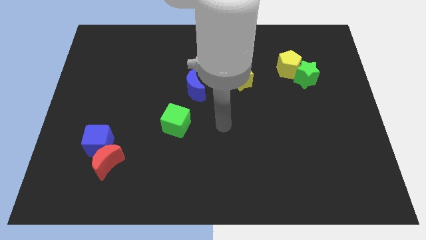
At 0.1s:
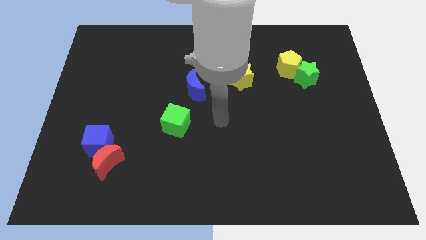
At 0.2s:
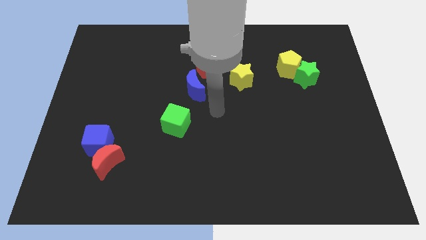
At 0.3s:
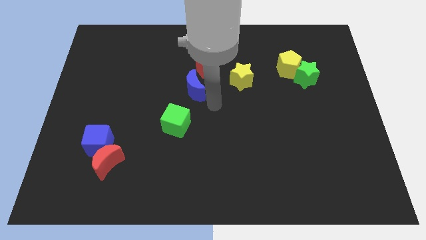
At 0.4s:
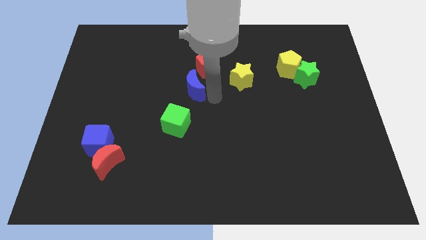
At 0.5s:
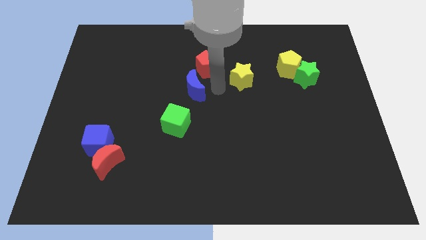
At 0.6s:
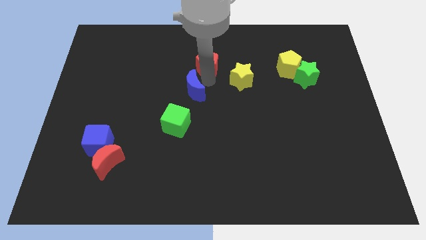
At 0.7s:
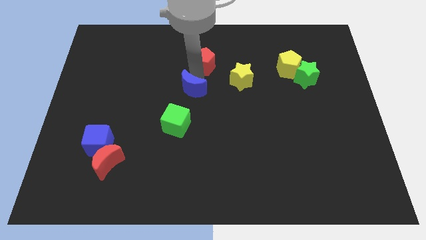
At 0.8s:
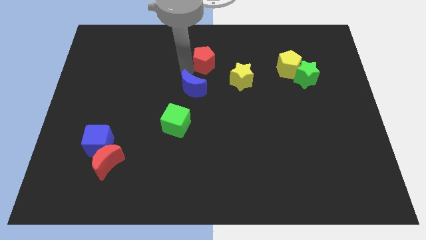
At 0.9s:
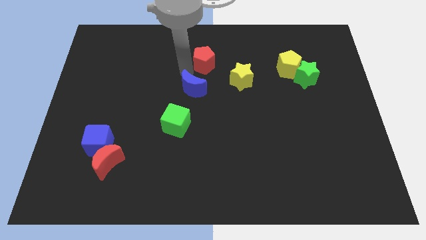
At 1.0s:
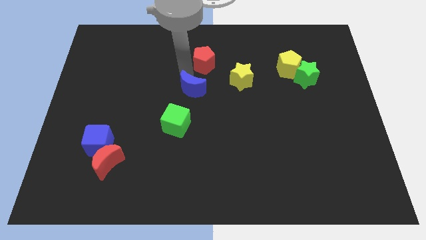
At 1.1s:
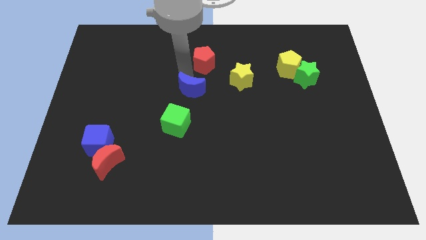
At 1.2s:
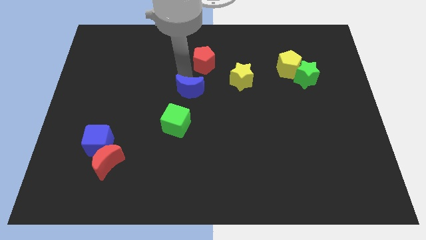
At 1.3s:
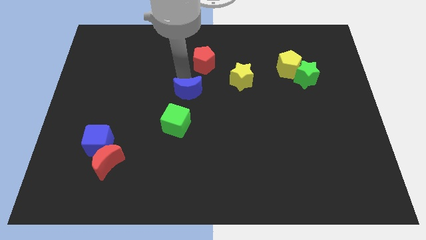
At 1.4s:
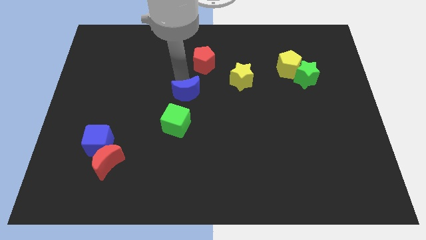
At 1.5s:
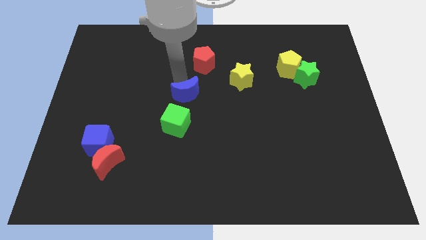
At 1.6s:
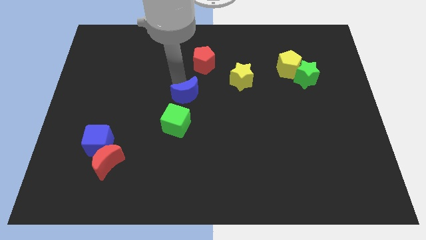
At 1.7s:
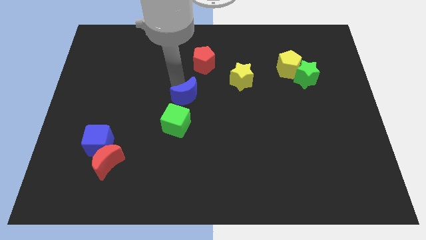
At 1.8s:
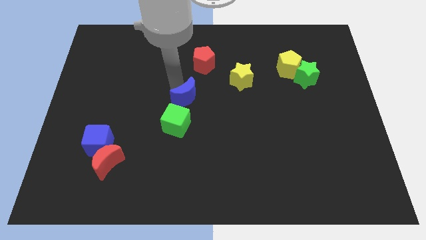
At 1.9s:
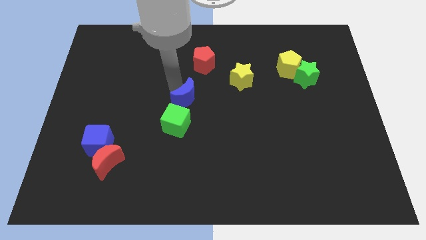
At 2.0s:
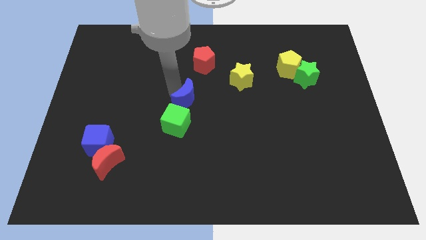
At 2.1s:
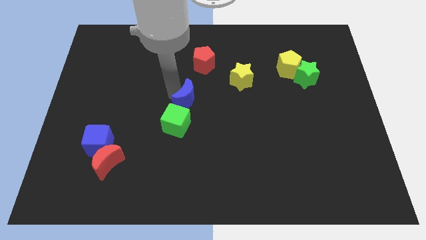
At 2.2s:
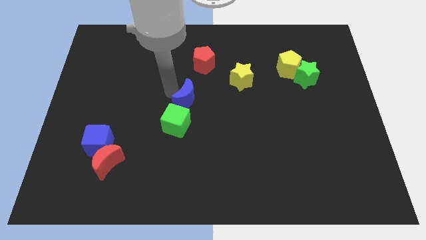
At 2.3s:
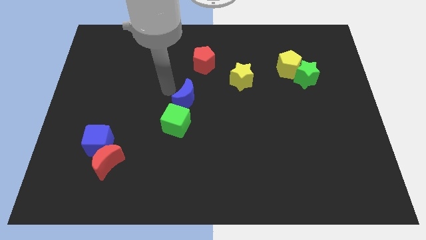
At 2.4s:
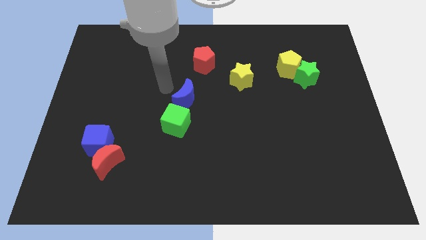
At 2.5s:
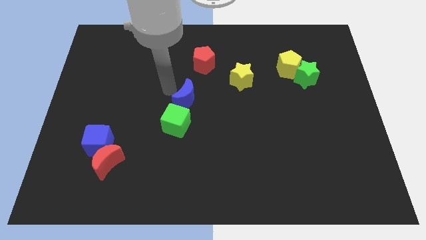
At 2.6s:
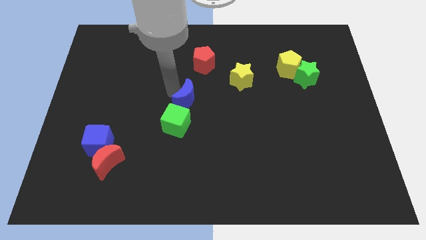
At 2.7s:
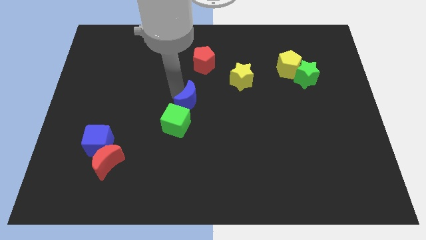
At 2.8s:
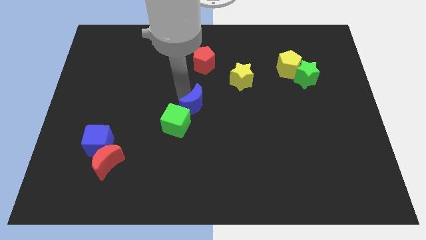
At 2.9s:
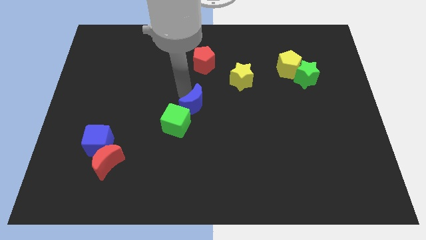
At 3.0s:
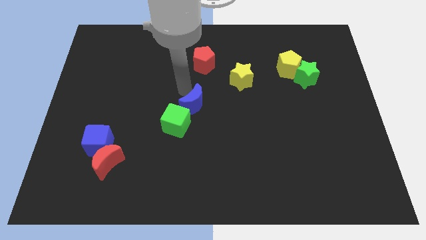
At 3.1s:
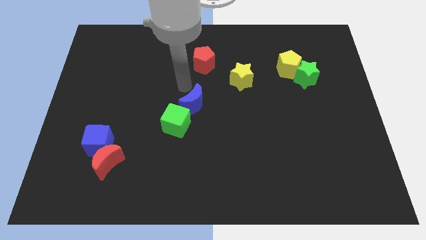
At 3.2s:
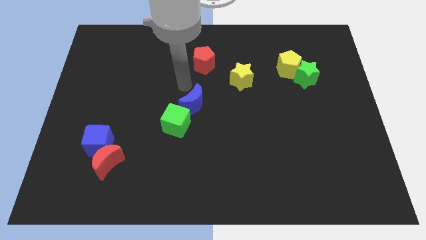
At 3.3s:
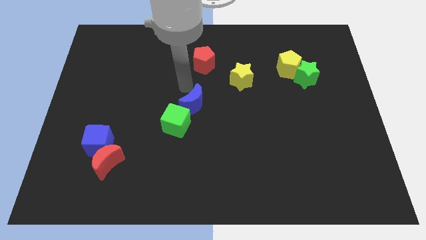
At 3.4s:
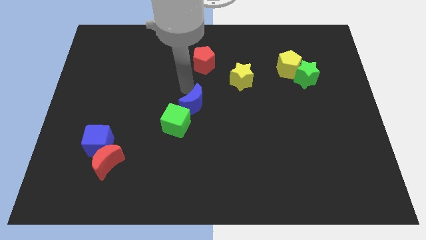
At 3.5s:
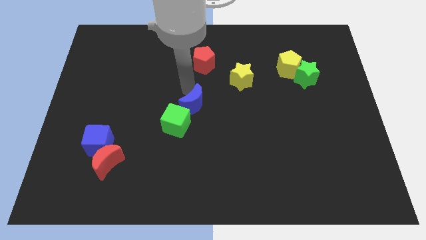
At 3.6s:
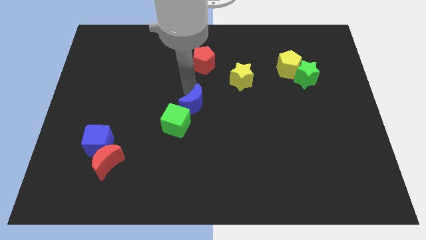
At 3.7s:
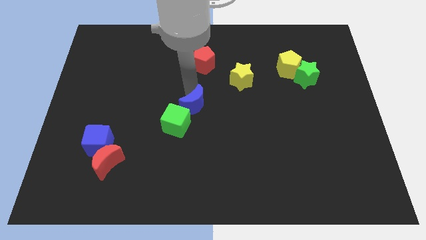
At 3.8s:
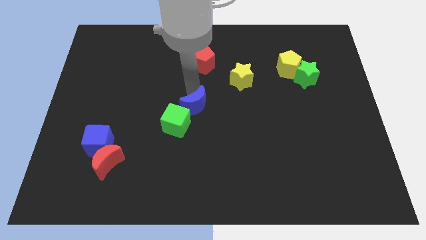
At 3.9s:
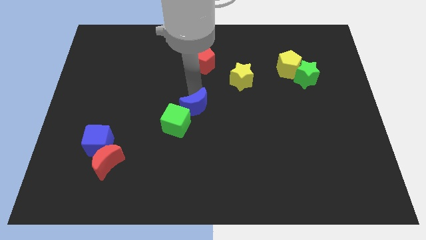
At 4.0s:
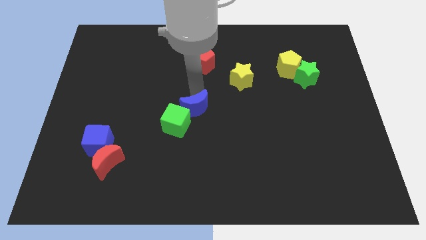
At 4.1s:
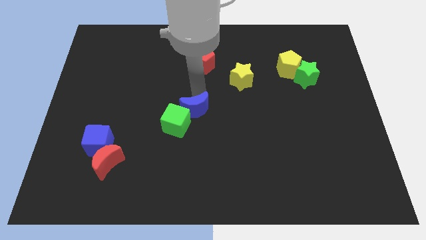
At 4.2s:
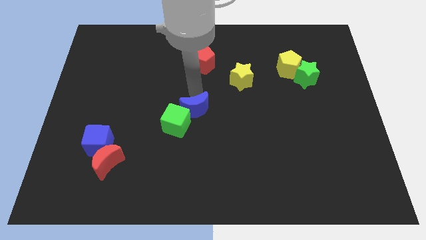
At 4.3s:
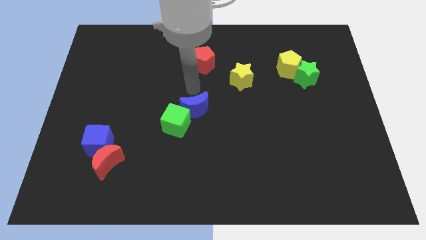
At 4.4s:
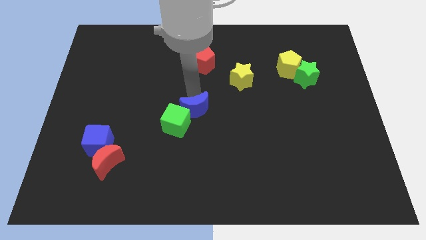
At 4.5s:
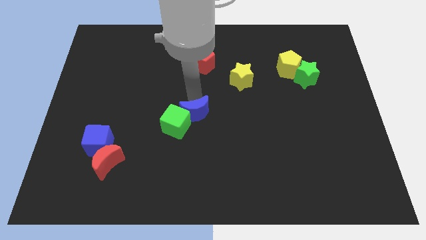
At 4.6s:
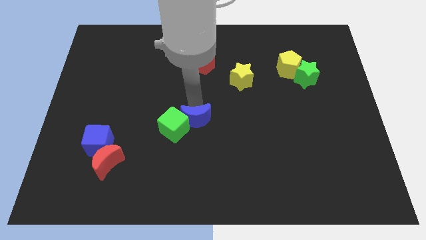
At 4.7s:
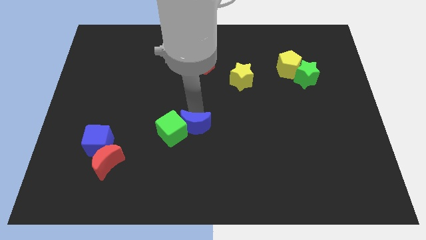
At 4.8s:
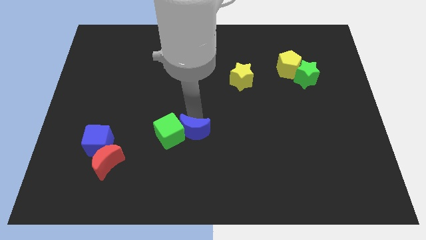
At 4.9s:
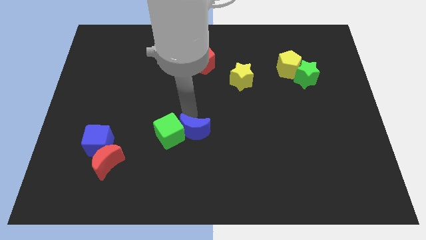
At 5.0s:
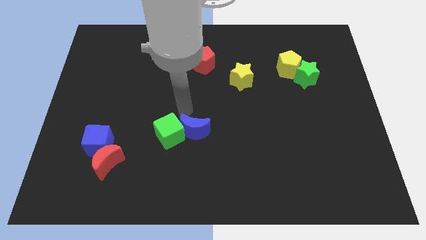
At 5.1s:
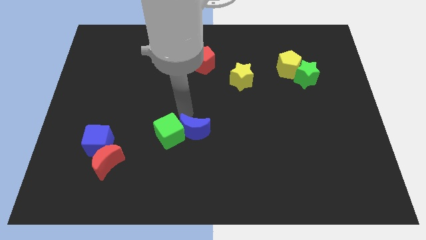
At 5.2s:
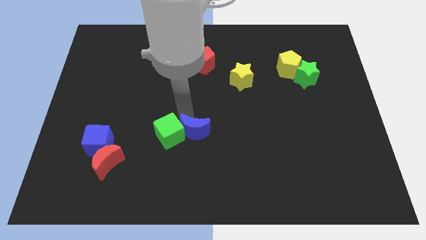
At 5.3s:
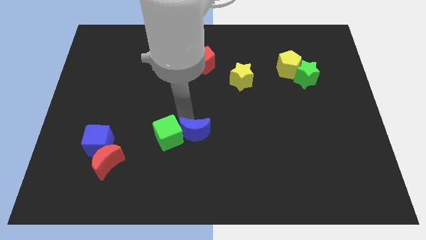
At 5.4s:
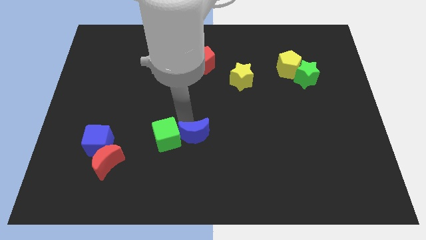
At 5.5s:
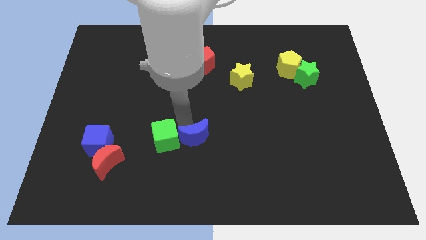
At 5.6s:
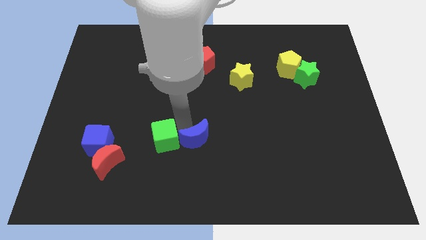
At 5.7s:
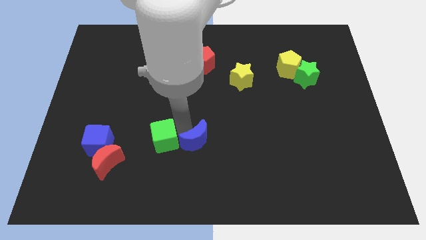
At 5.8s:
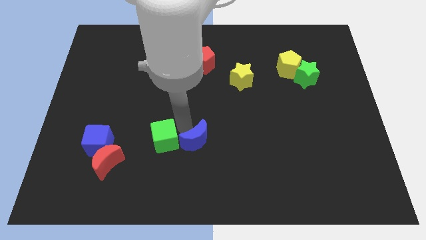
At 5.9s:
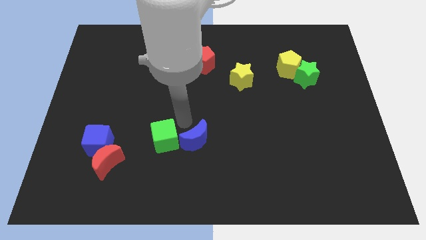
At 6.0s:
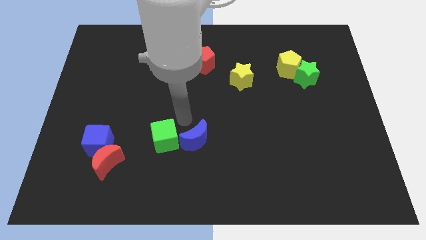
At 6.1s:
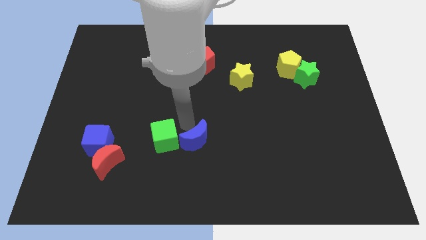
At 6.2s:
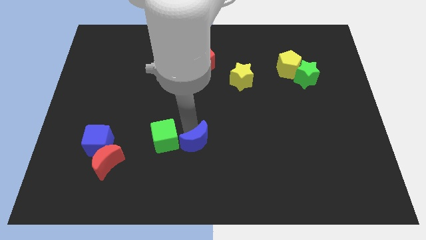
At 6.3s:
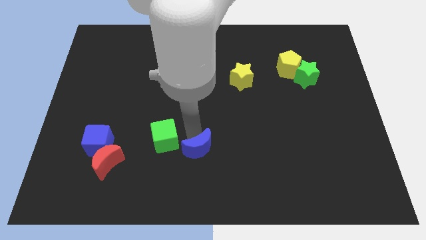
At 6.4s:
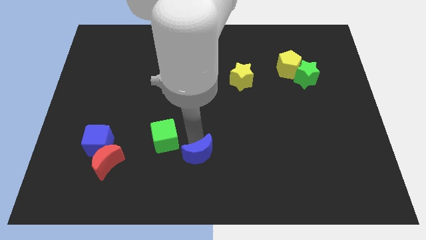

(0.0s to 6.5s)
slide the blue moon to the bottom
